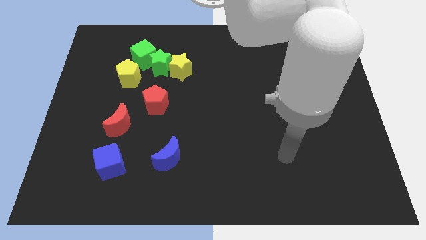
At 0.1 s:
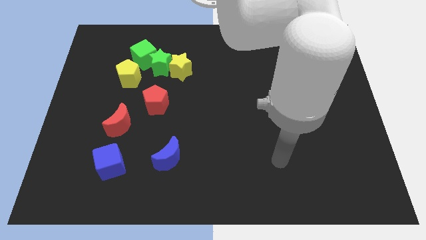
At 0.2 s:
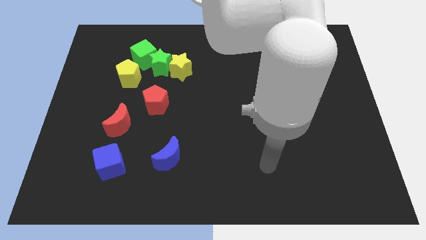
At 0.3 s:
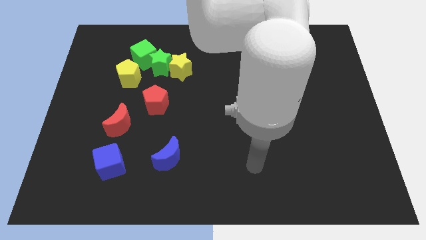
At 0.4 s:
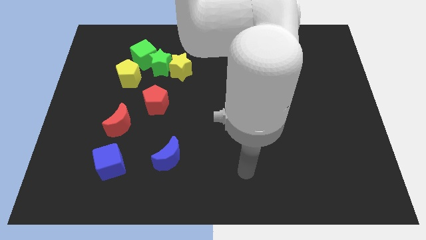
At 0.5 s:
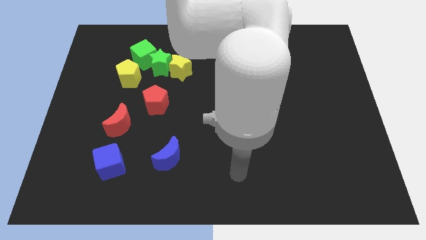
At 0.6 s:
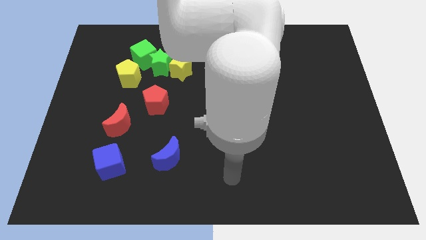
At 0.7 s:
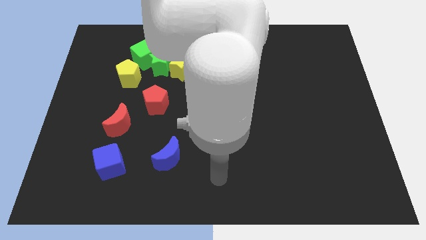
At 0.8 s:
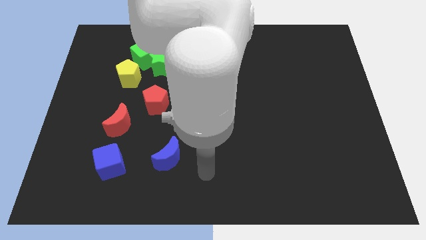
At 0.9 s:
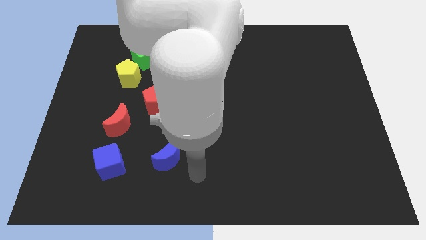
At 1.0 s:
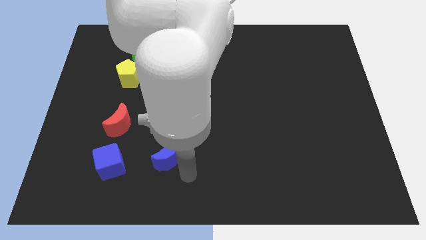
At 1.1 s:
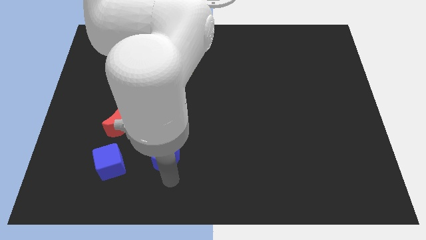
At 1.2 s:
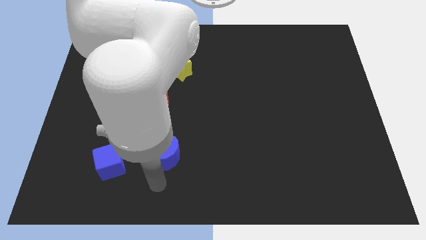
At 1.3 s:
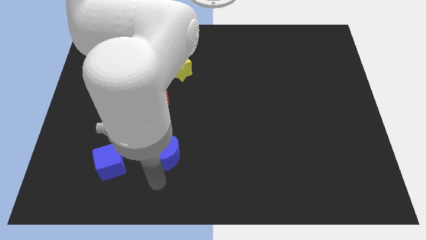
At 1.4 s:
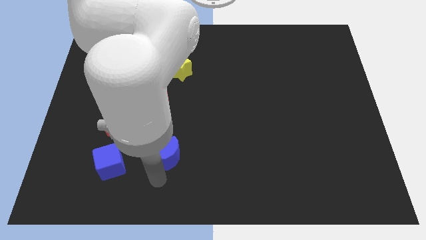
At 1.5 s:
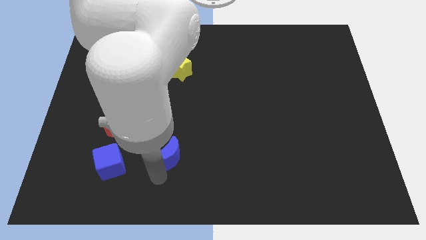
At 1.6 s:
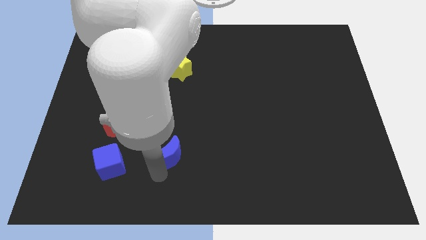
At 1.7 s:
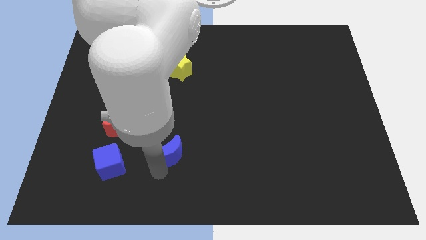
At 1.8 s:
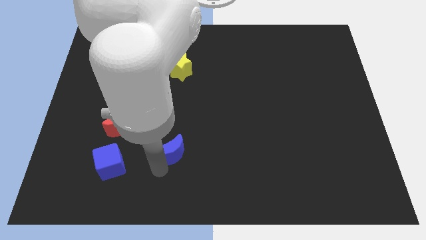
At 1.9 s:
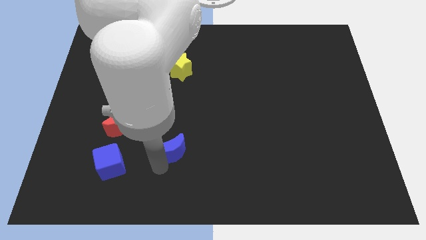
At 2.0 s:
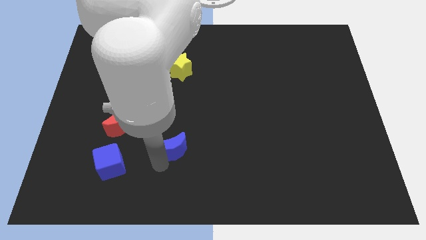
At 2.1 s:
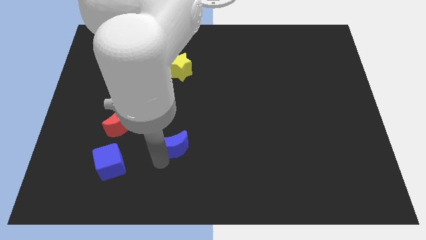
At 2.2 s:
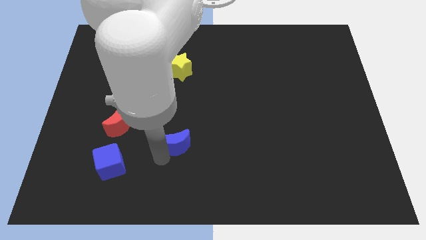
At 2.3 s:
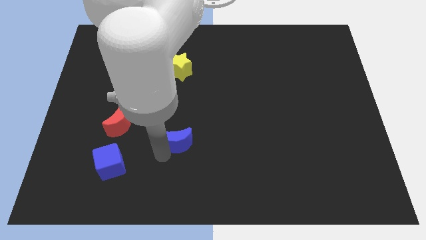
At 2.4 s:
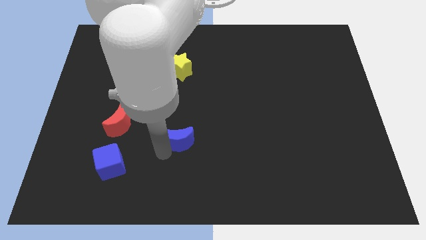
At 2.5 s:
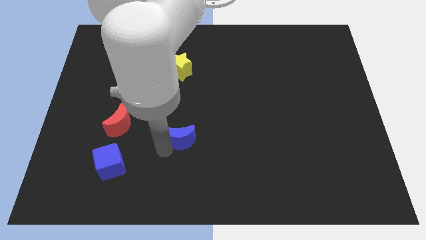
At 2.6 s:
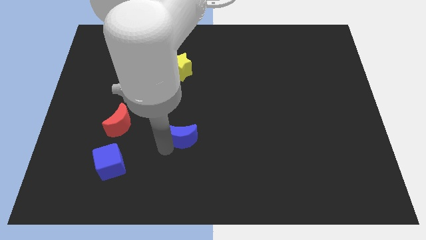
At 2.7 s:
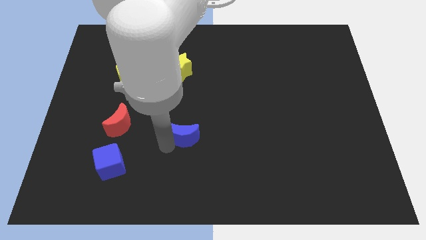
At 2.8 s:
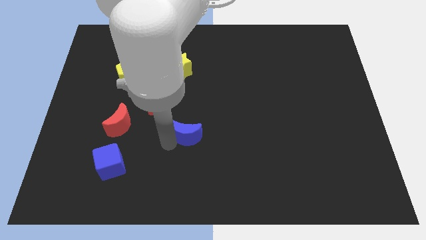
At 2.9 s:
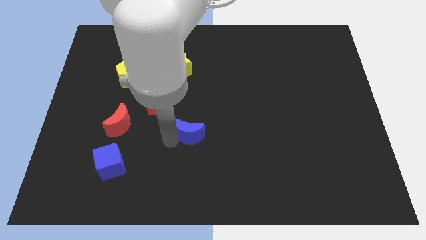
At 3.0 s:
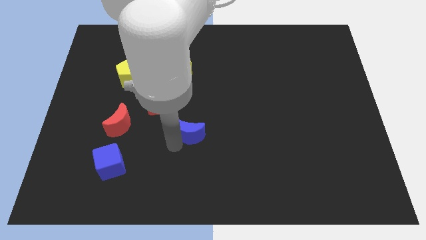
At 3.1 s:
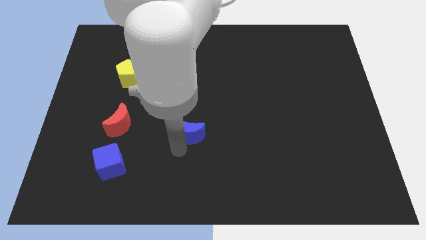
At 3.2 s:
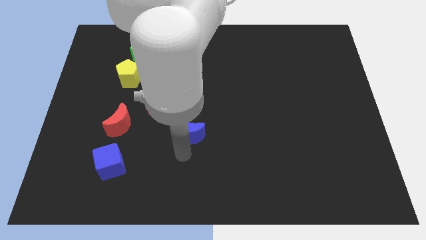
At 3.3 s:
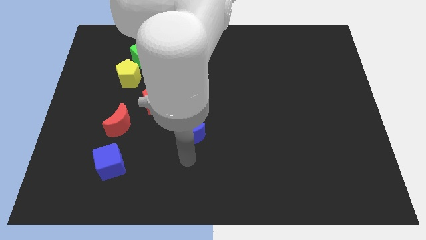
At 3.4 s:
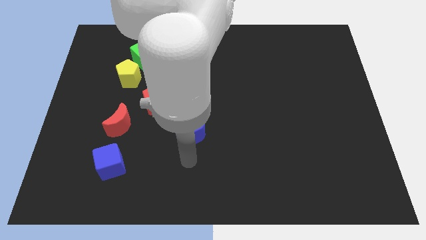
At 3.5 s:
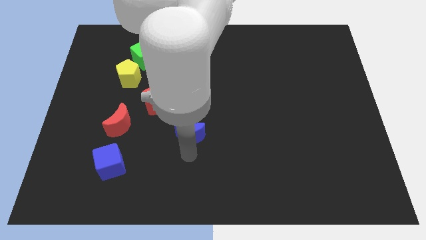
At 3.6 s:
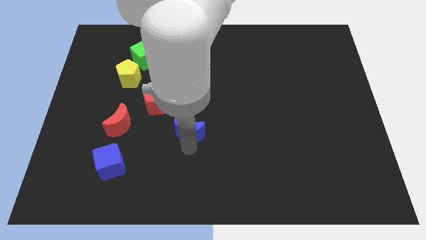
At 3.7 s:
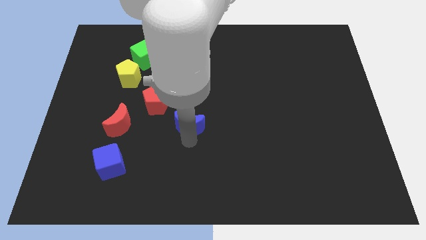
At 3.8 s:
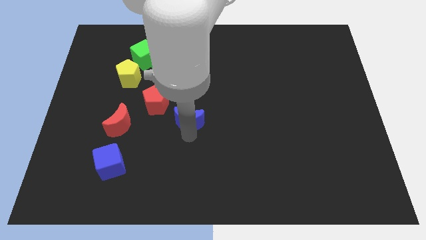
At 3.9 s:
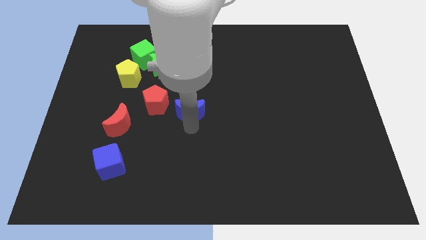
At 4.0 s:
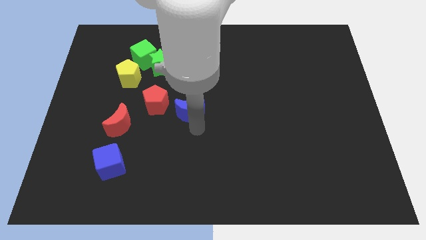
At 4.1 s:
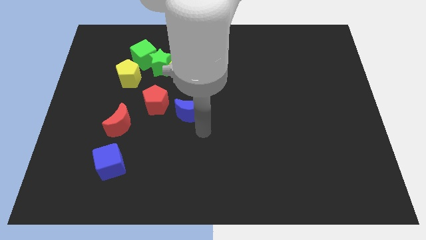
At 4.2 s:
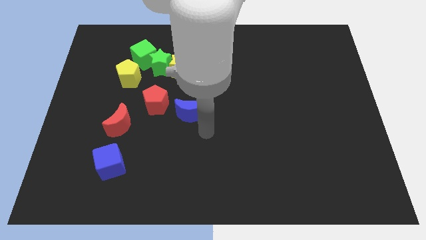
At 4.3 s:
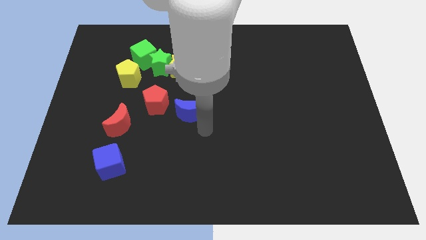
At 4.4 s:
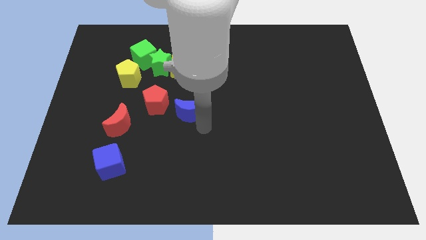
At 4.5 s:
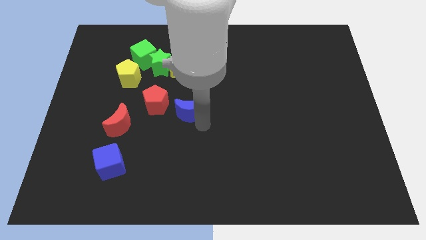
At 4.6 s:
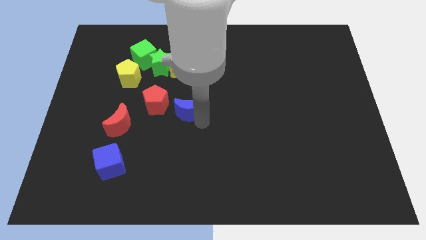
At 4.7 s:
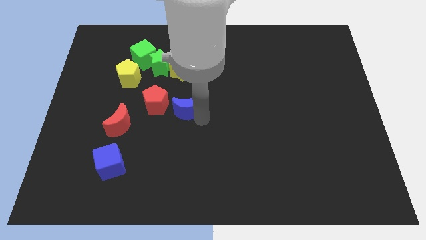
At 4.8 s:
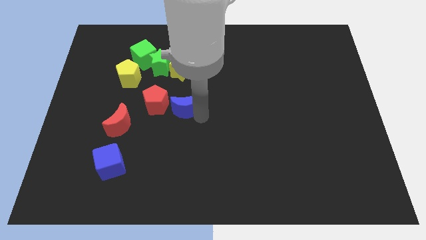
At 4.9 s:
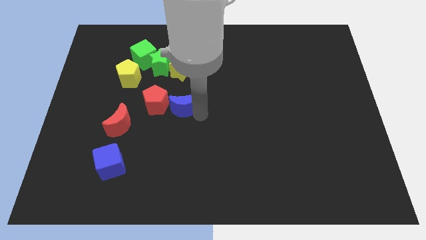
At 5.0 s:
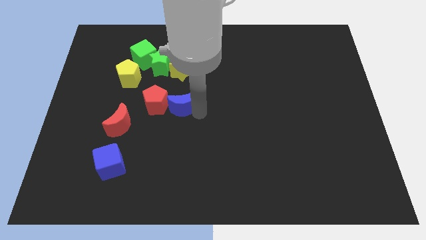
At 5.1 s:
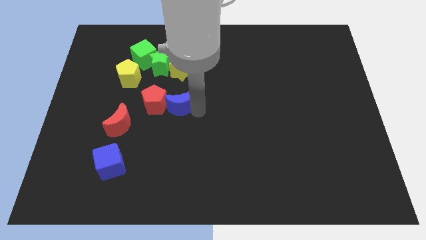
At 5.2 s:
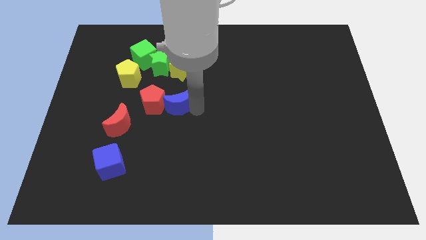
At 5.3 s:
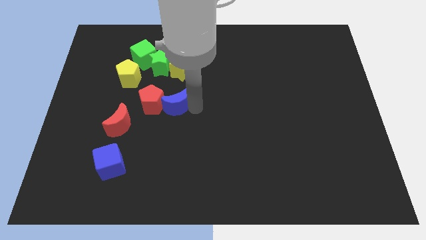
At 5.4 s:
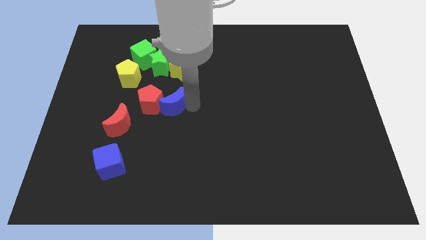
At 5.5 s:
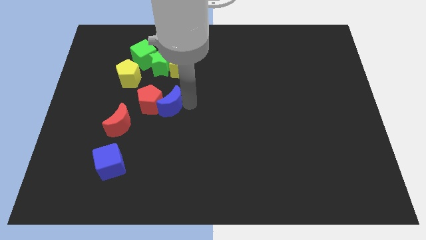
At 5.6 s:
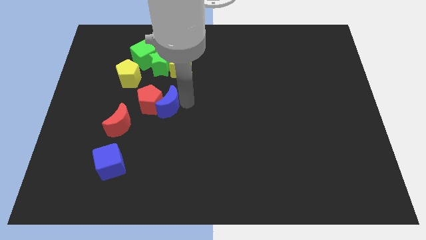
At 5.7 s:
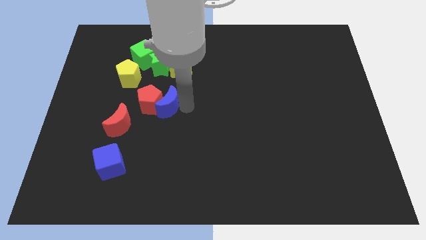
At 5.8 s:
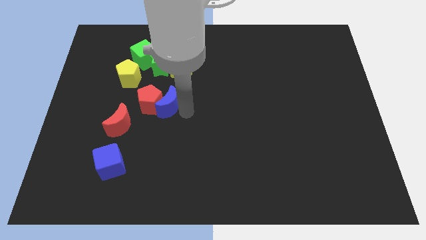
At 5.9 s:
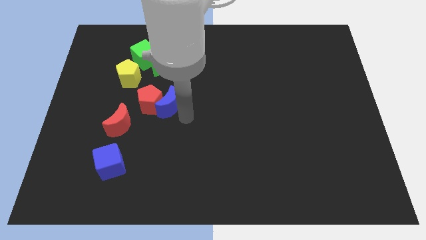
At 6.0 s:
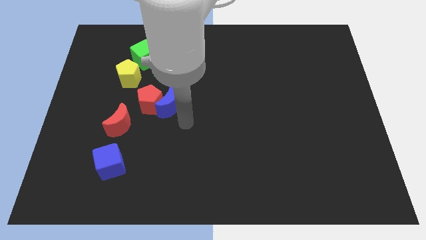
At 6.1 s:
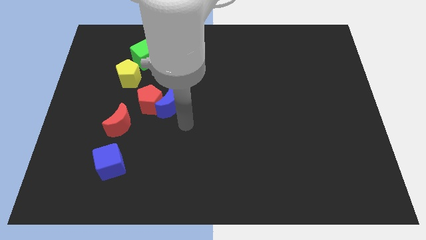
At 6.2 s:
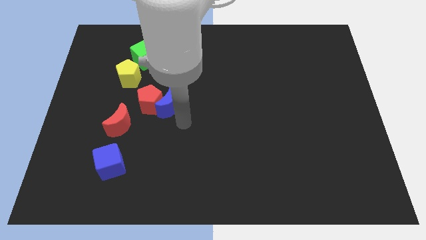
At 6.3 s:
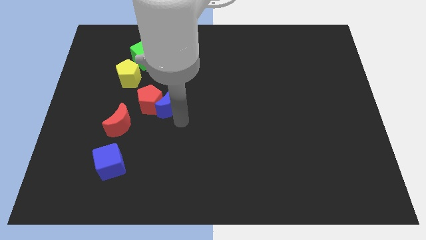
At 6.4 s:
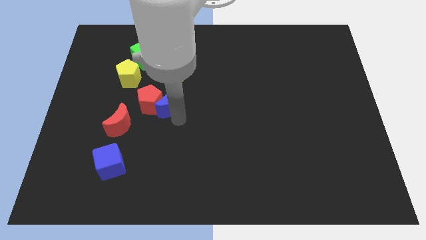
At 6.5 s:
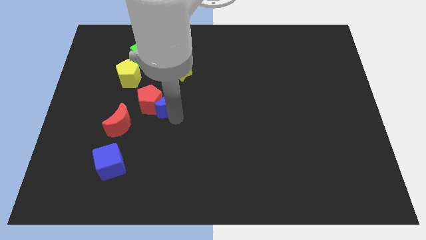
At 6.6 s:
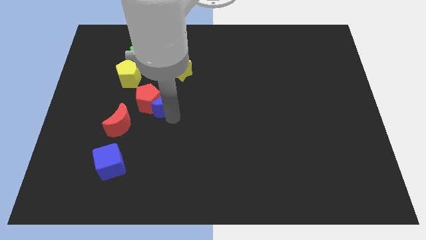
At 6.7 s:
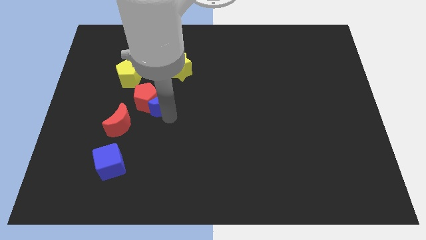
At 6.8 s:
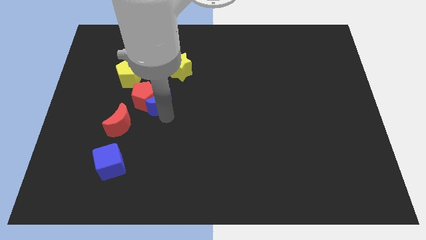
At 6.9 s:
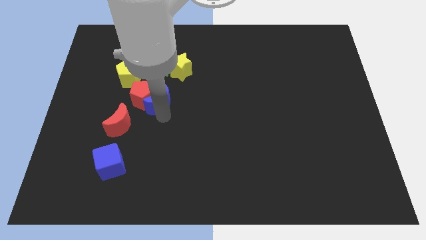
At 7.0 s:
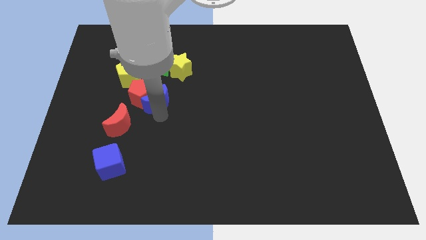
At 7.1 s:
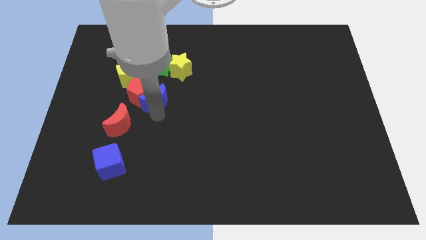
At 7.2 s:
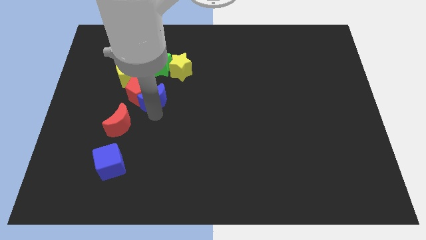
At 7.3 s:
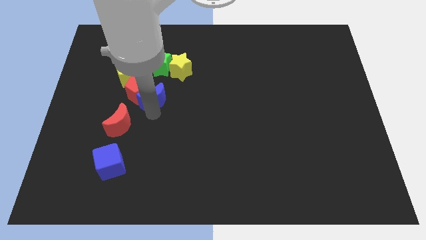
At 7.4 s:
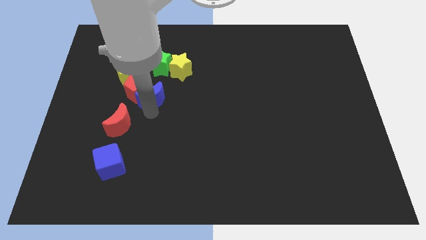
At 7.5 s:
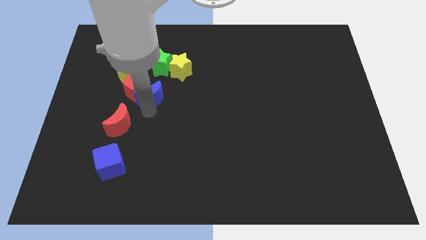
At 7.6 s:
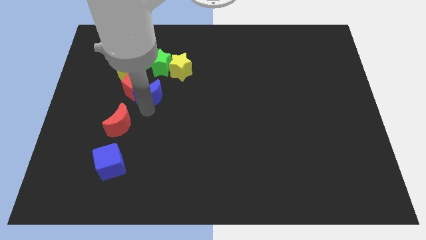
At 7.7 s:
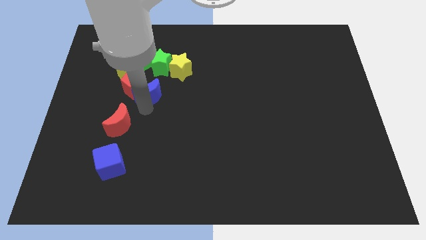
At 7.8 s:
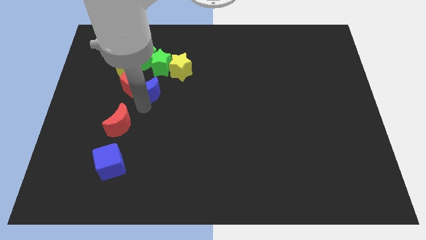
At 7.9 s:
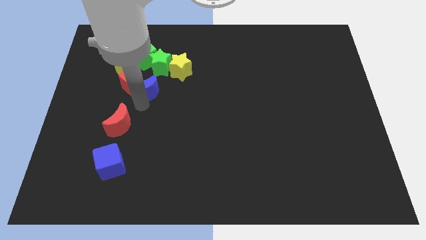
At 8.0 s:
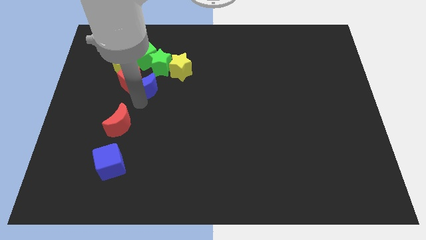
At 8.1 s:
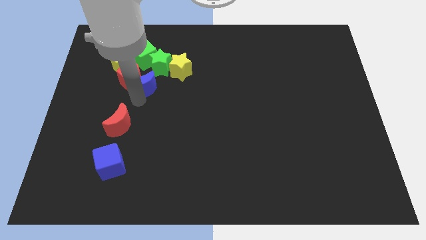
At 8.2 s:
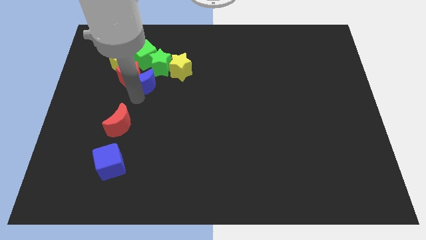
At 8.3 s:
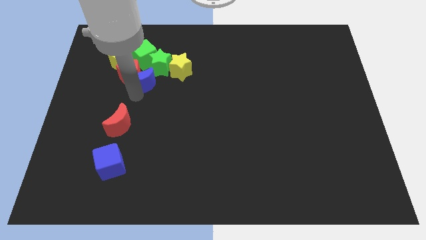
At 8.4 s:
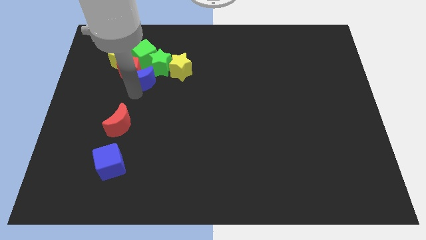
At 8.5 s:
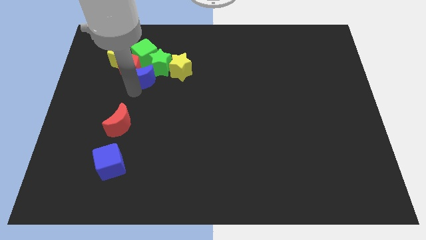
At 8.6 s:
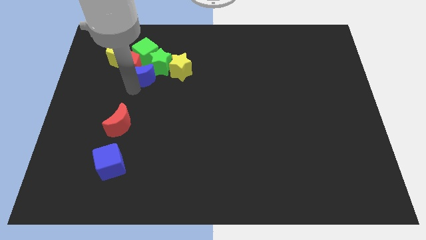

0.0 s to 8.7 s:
move the blue moon towards the green star
